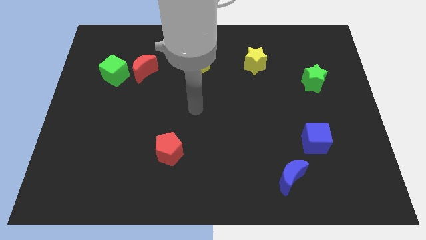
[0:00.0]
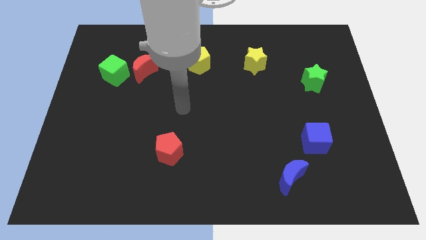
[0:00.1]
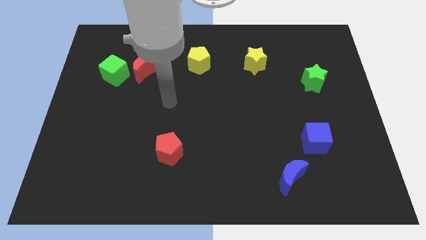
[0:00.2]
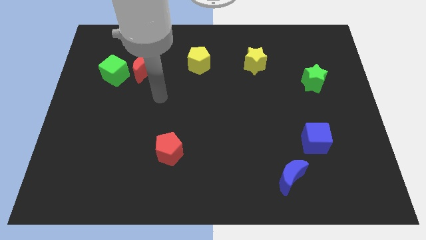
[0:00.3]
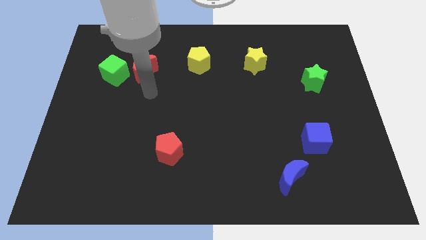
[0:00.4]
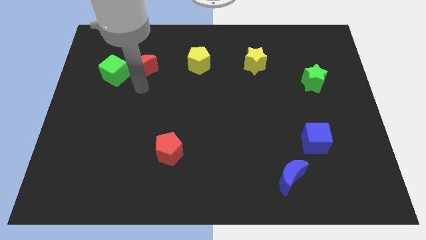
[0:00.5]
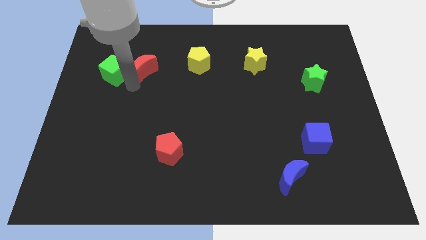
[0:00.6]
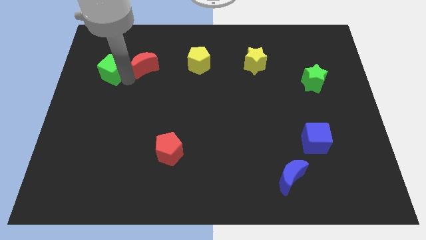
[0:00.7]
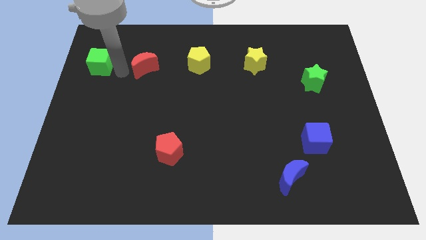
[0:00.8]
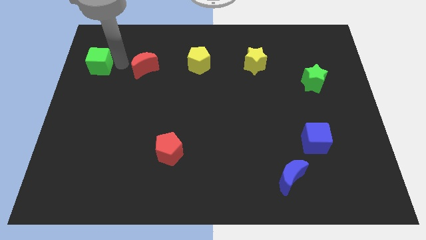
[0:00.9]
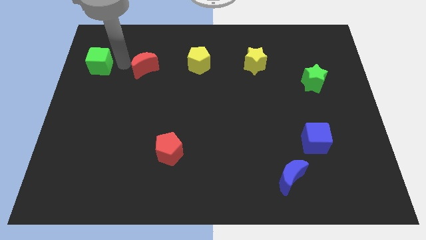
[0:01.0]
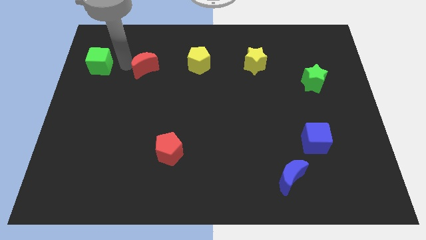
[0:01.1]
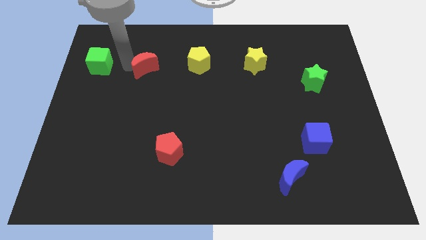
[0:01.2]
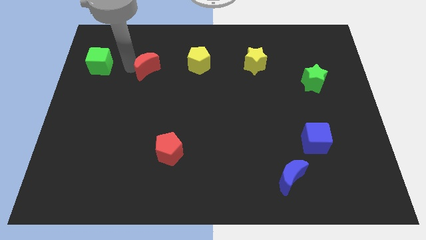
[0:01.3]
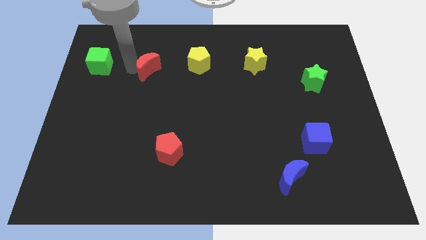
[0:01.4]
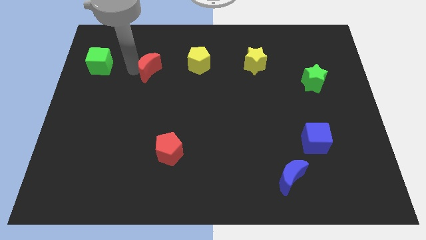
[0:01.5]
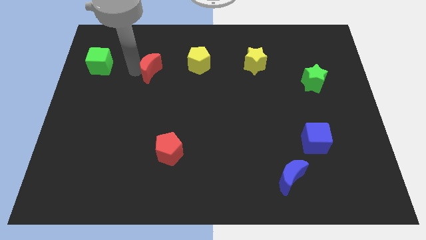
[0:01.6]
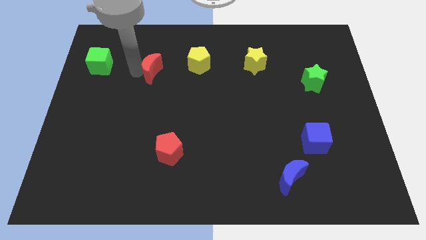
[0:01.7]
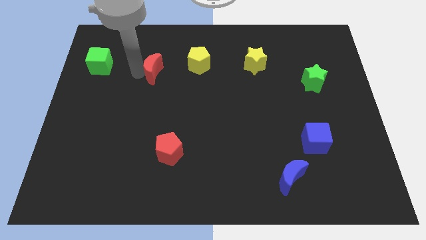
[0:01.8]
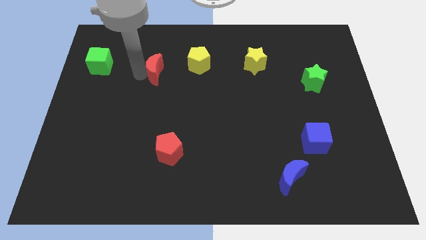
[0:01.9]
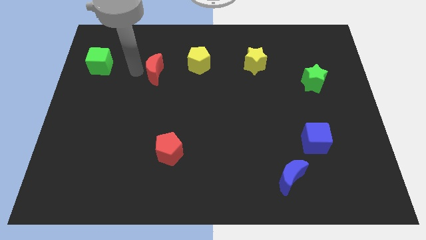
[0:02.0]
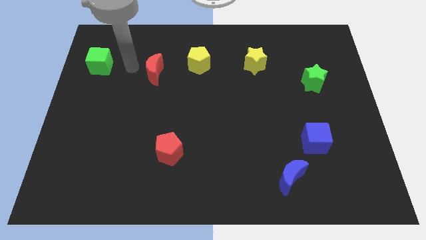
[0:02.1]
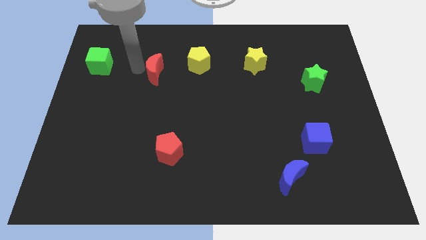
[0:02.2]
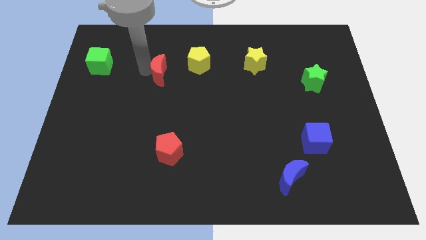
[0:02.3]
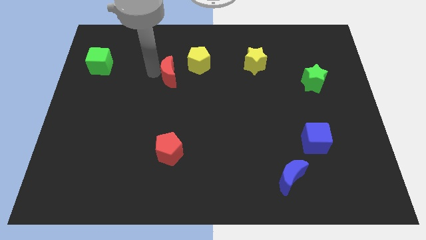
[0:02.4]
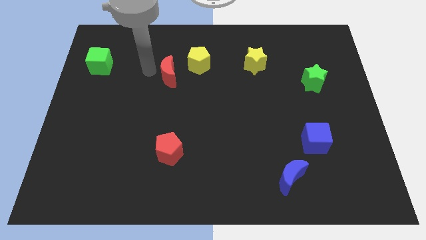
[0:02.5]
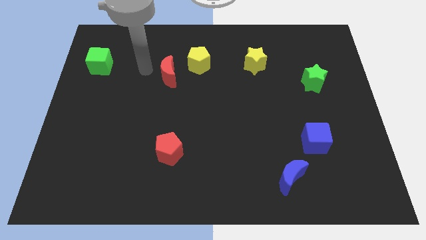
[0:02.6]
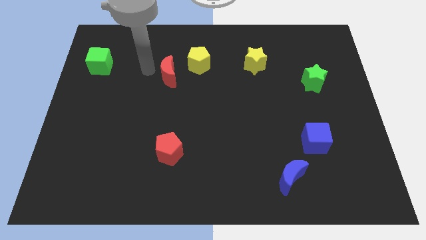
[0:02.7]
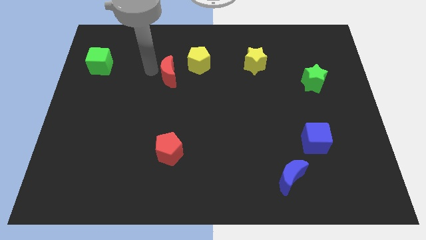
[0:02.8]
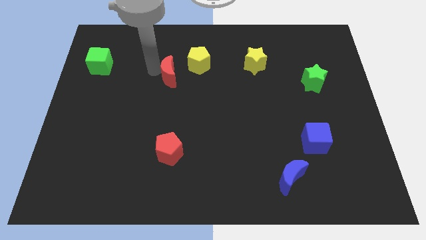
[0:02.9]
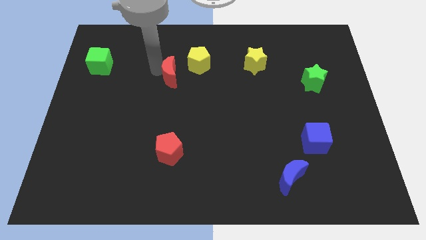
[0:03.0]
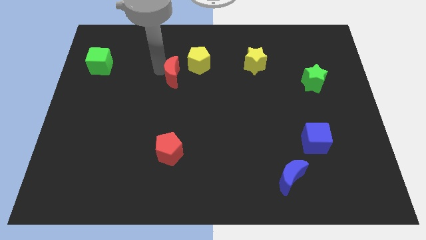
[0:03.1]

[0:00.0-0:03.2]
slide the red moon a bit right

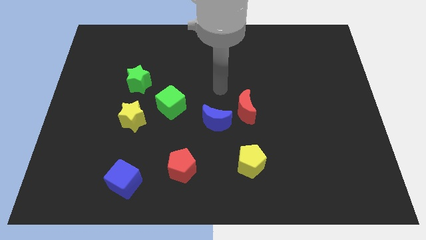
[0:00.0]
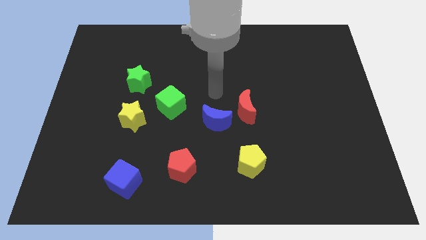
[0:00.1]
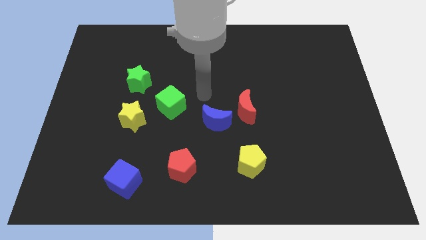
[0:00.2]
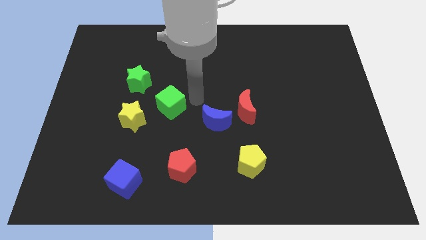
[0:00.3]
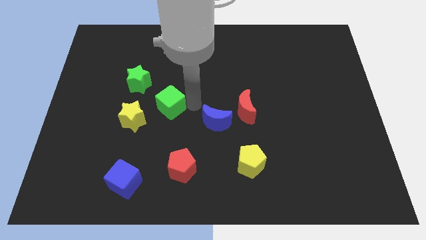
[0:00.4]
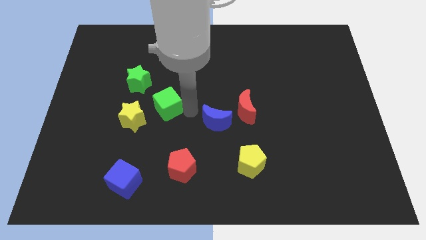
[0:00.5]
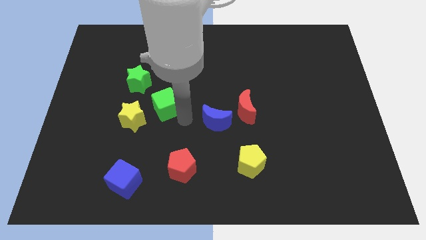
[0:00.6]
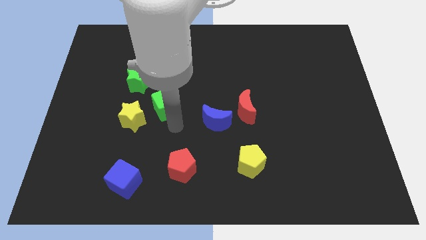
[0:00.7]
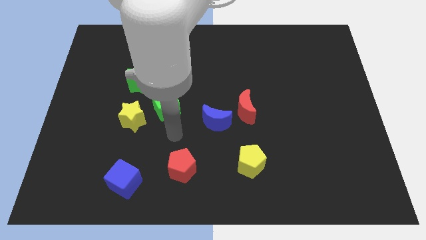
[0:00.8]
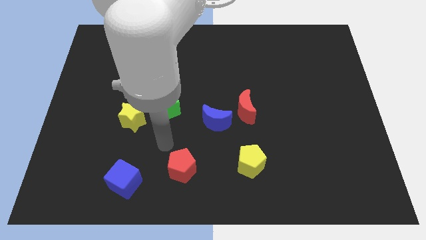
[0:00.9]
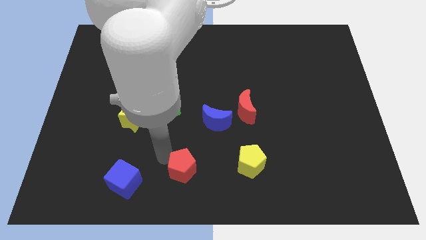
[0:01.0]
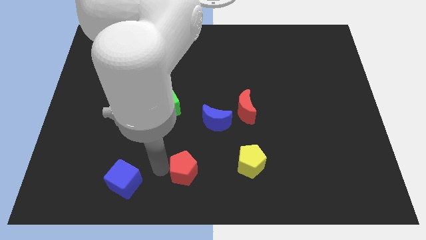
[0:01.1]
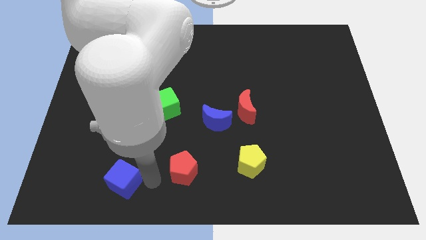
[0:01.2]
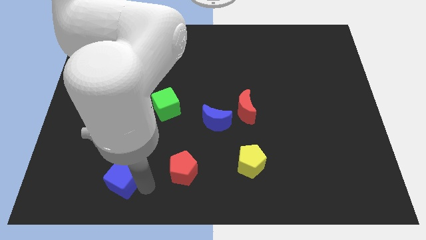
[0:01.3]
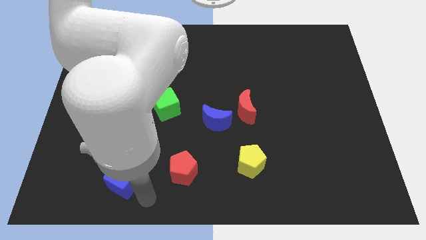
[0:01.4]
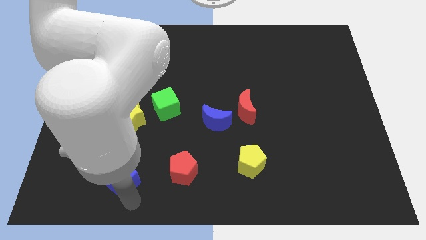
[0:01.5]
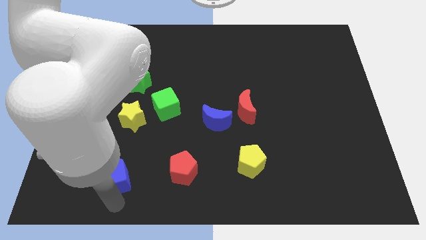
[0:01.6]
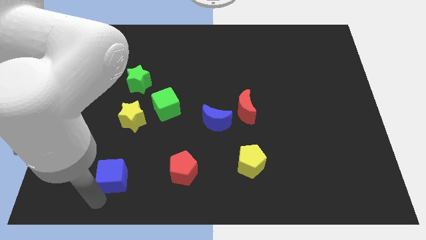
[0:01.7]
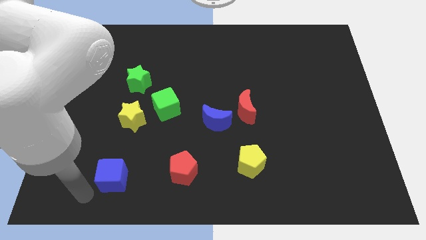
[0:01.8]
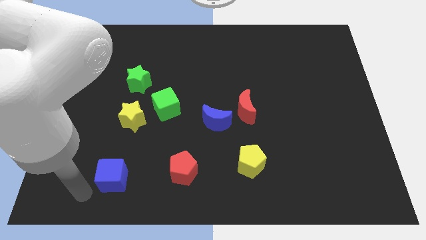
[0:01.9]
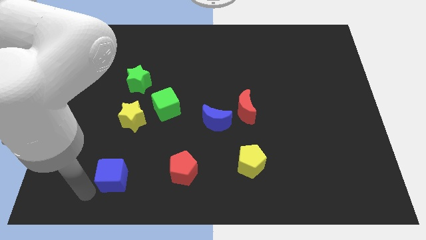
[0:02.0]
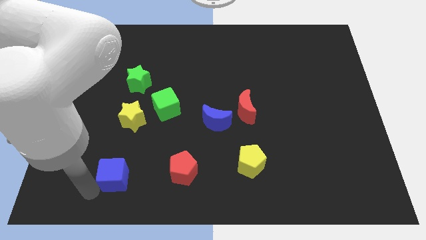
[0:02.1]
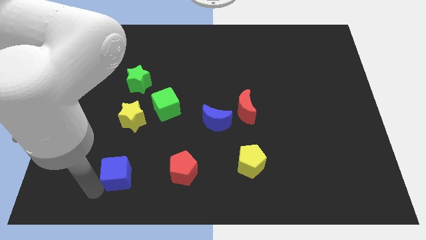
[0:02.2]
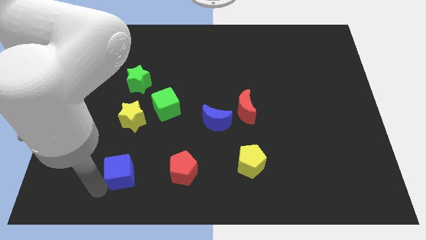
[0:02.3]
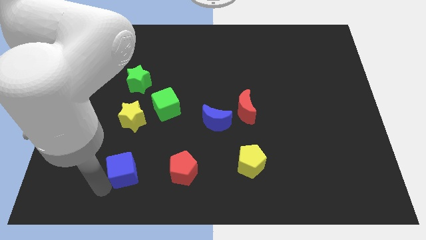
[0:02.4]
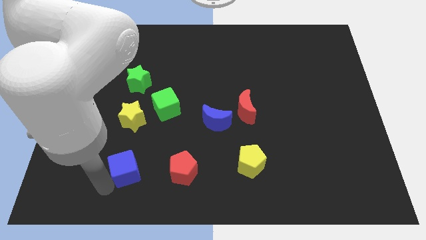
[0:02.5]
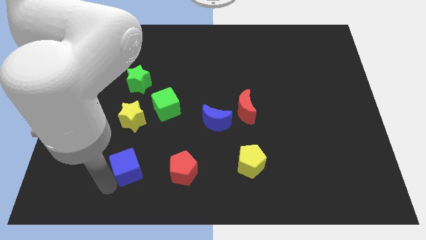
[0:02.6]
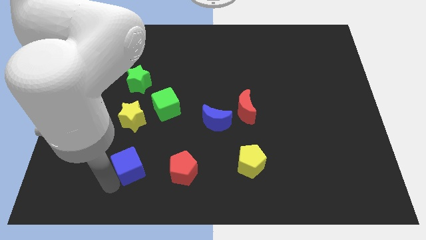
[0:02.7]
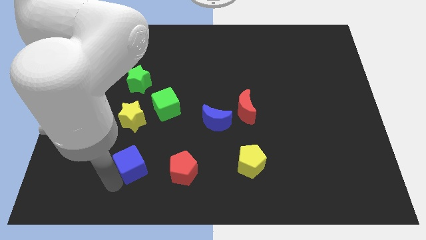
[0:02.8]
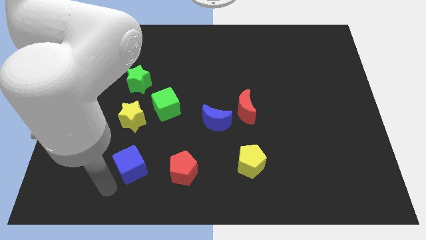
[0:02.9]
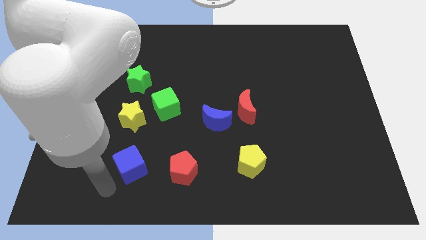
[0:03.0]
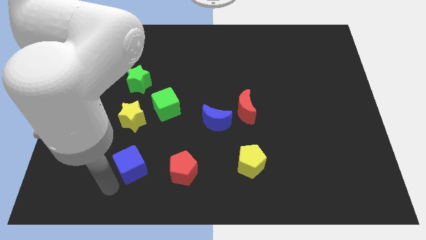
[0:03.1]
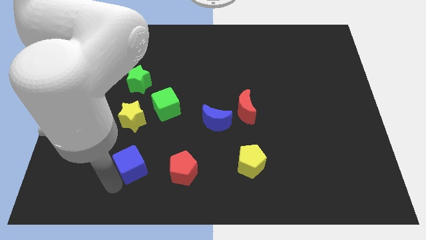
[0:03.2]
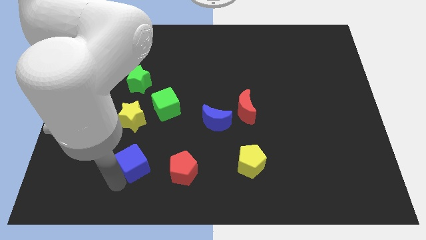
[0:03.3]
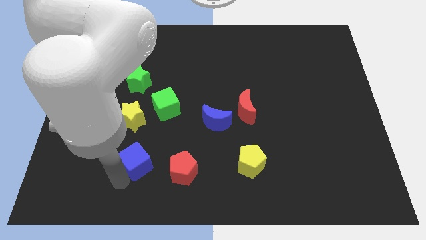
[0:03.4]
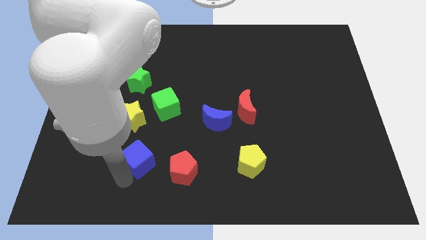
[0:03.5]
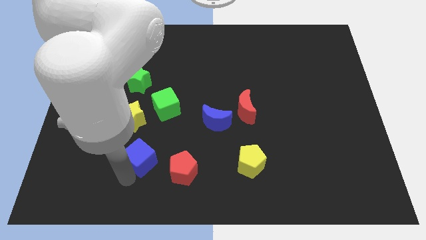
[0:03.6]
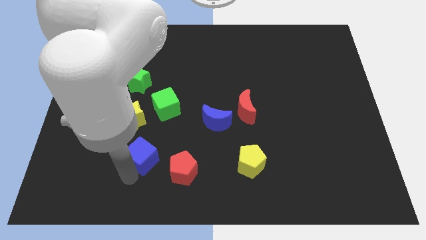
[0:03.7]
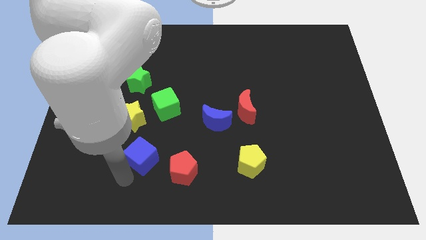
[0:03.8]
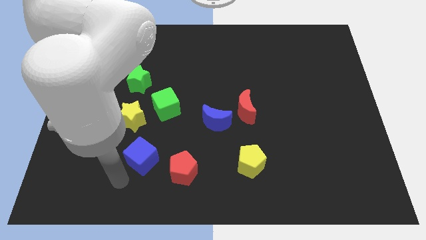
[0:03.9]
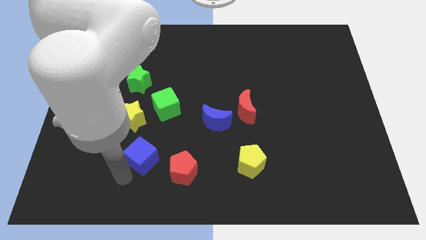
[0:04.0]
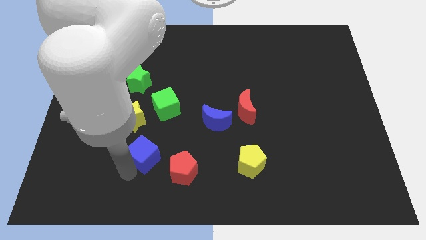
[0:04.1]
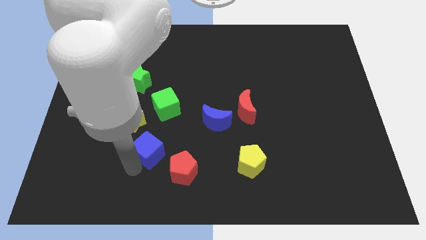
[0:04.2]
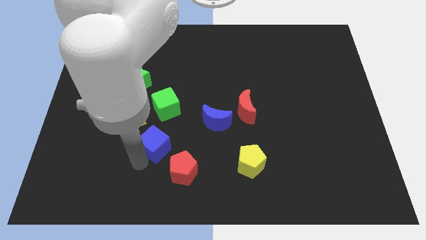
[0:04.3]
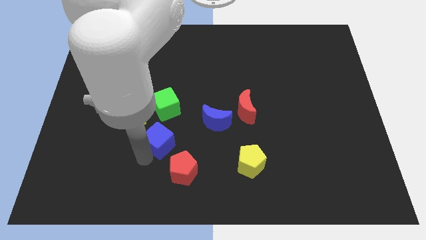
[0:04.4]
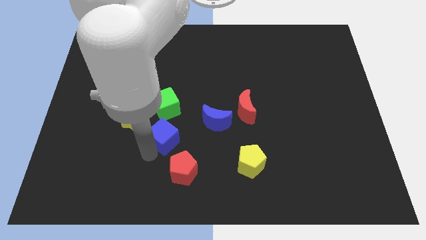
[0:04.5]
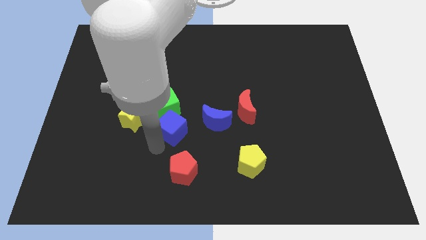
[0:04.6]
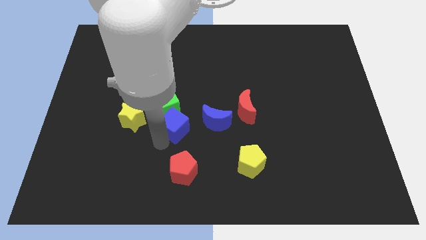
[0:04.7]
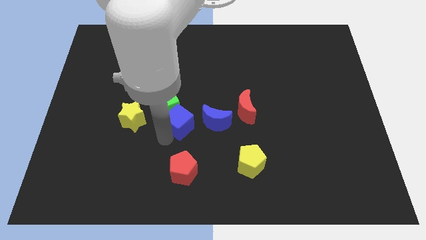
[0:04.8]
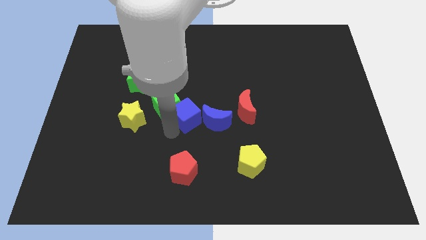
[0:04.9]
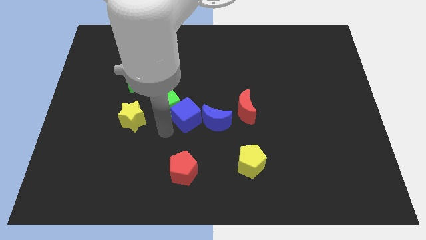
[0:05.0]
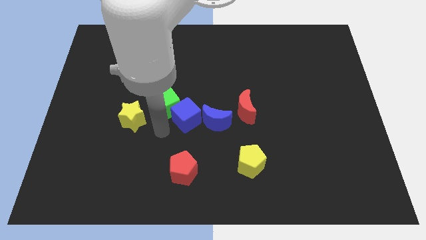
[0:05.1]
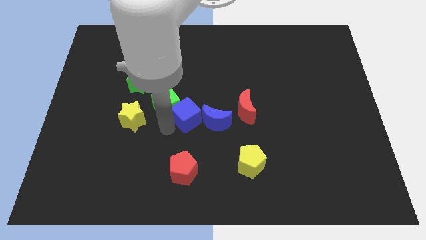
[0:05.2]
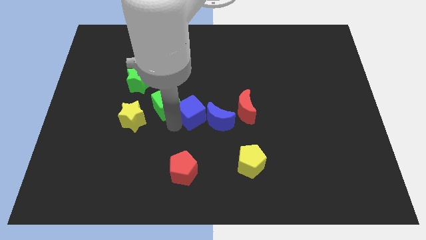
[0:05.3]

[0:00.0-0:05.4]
move the blue cube up and then to the right
